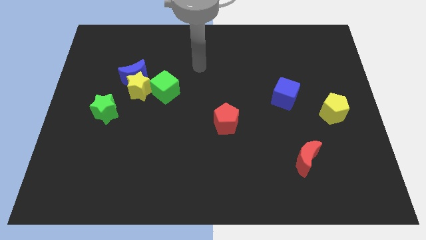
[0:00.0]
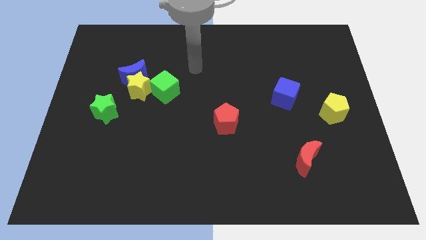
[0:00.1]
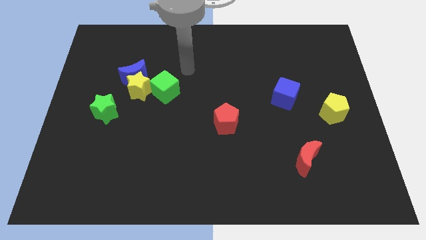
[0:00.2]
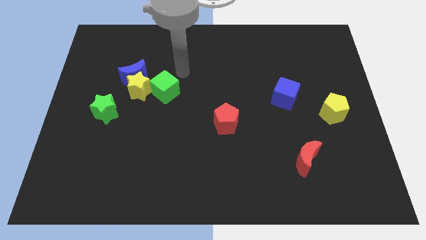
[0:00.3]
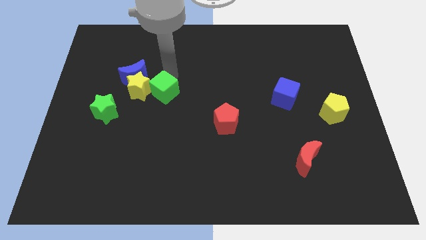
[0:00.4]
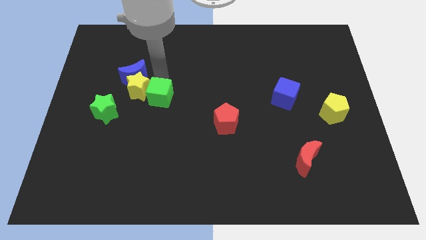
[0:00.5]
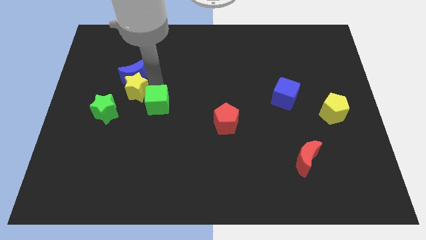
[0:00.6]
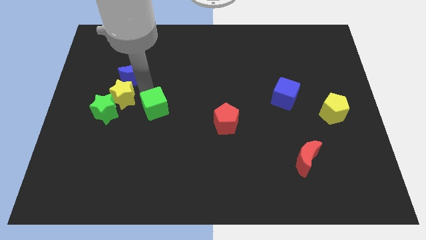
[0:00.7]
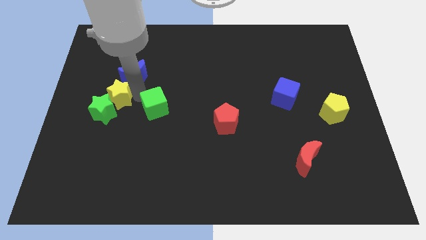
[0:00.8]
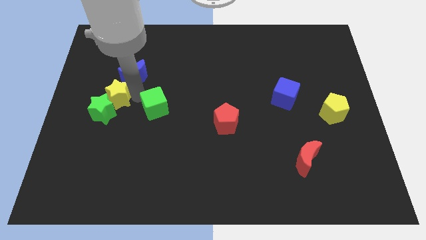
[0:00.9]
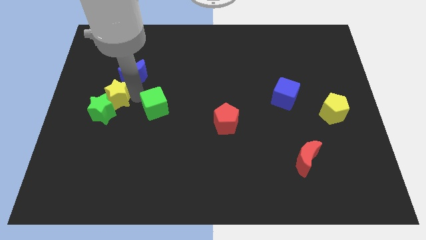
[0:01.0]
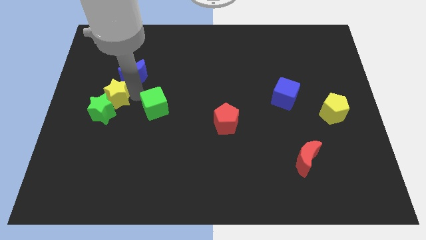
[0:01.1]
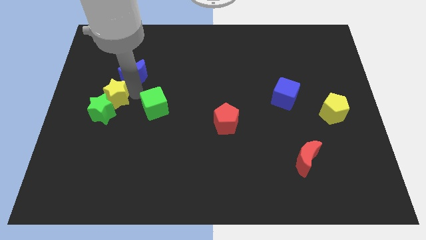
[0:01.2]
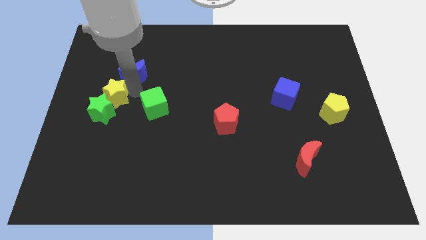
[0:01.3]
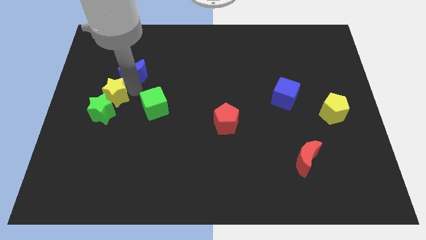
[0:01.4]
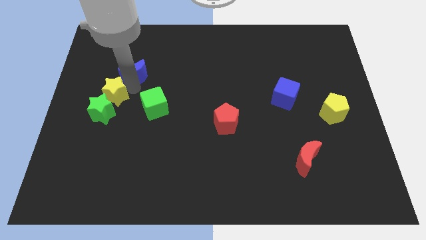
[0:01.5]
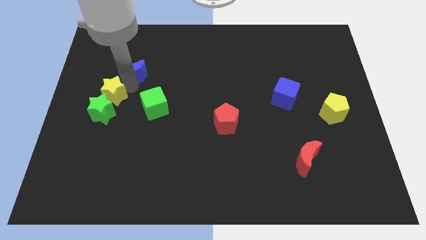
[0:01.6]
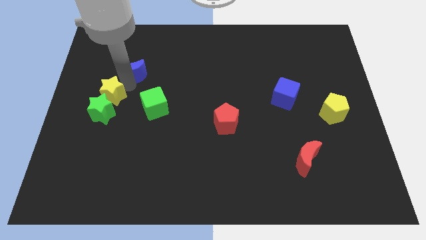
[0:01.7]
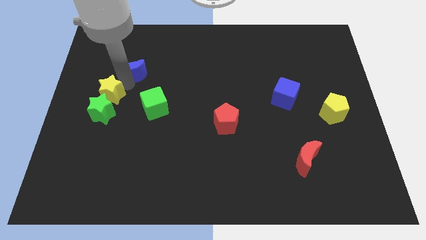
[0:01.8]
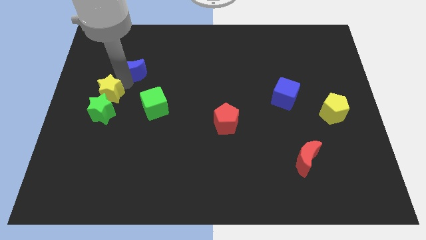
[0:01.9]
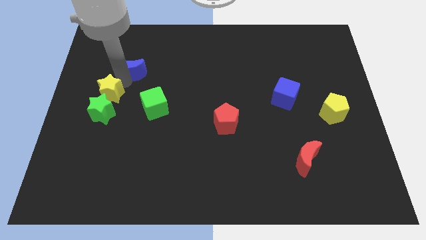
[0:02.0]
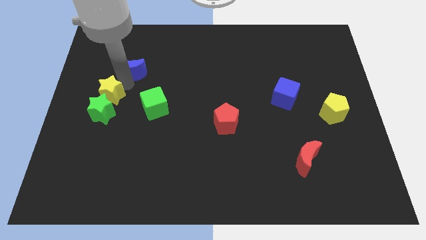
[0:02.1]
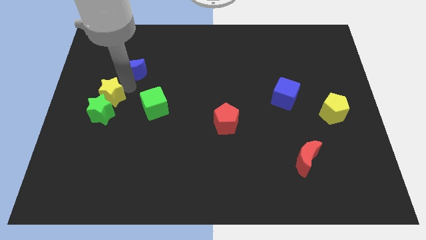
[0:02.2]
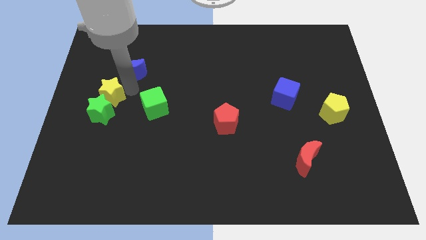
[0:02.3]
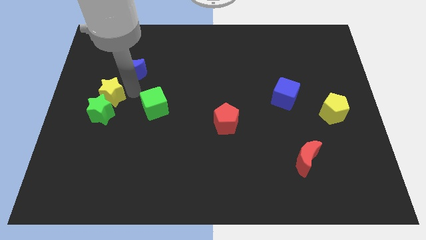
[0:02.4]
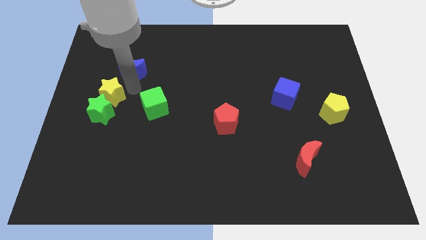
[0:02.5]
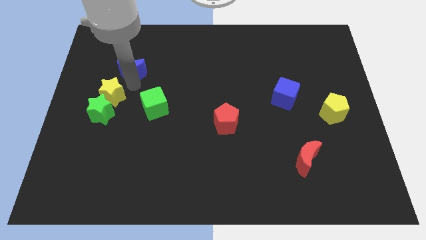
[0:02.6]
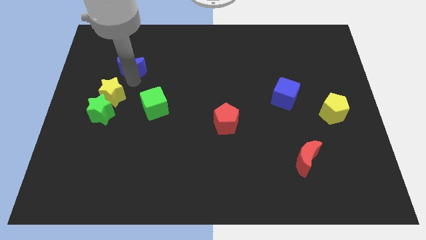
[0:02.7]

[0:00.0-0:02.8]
pull the blue moon apart from the yellow star and green cube

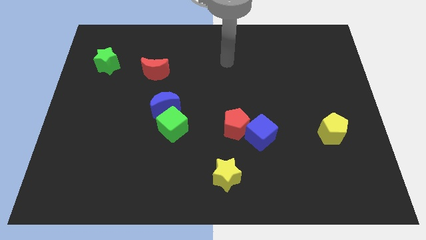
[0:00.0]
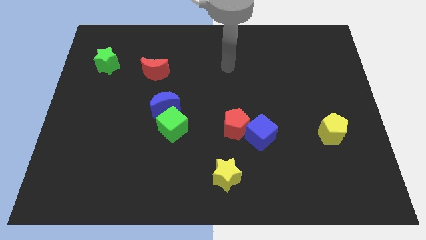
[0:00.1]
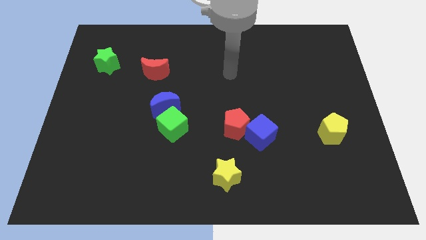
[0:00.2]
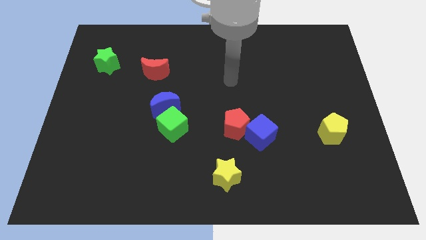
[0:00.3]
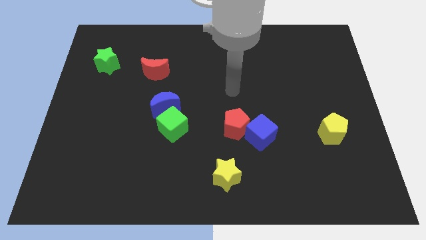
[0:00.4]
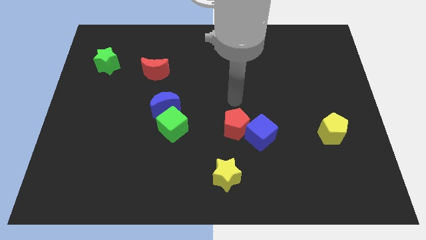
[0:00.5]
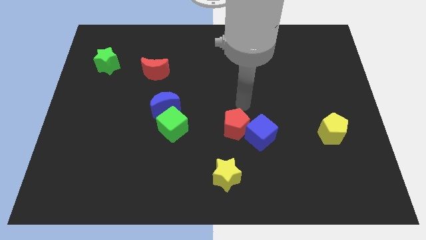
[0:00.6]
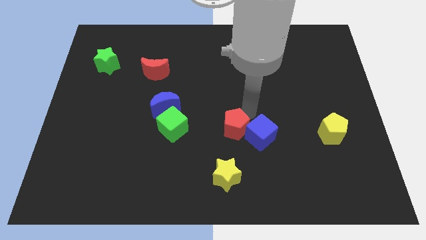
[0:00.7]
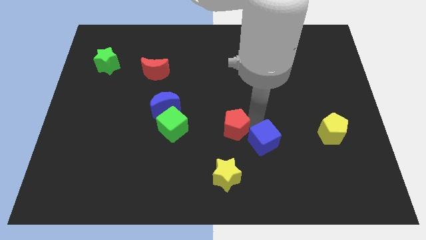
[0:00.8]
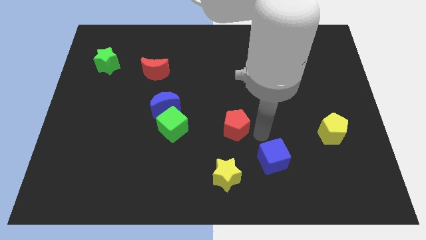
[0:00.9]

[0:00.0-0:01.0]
separate the red pentagon from the blue cube

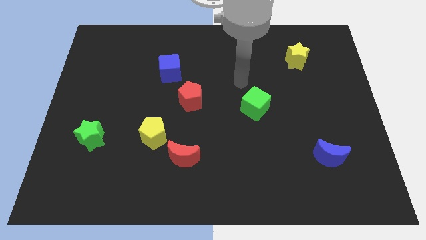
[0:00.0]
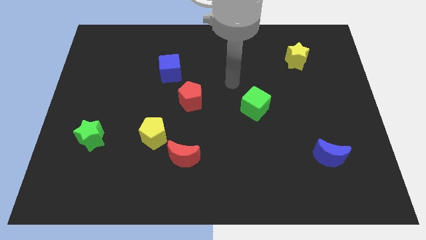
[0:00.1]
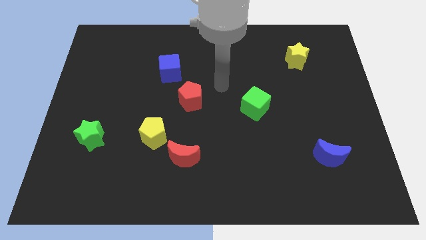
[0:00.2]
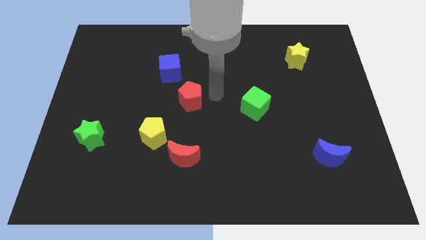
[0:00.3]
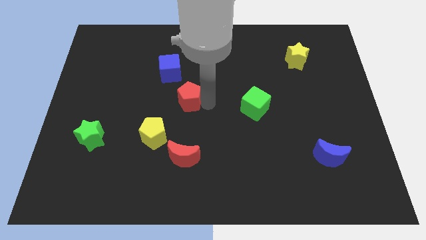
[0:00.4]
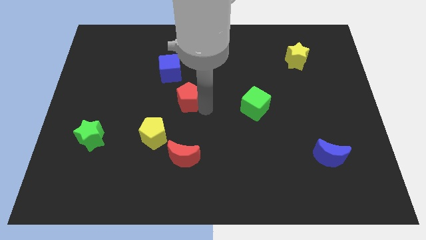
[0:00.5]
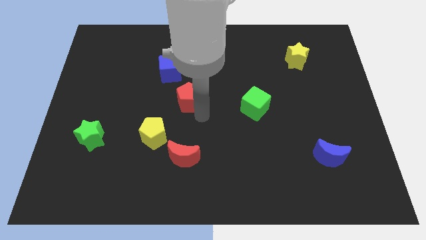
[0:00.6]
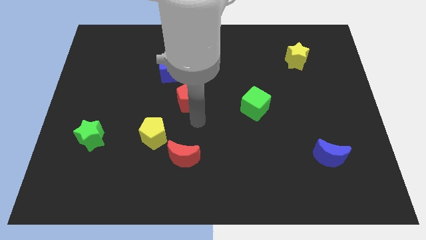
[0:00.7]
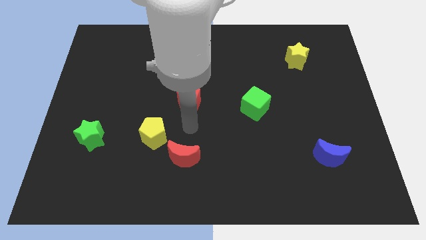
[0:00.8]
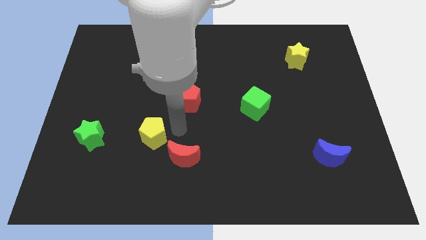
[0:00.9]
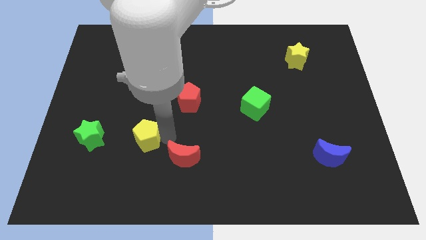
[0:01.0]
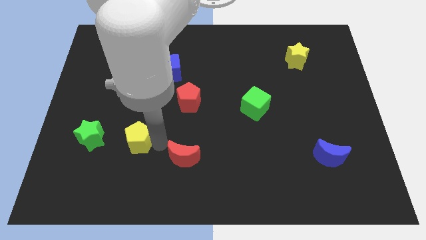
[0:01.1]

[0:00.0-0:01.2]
separate the red moon from the yellow pentagon

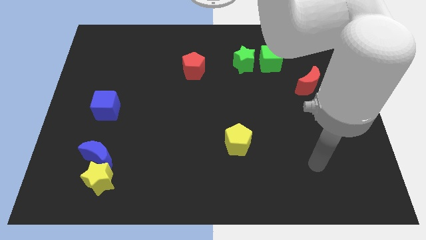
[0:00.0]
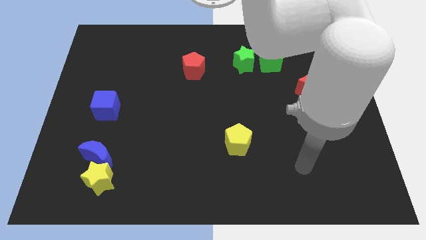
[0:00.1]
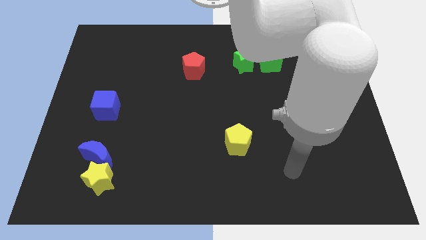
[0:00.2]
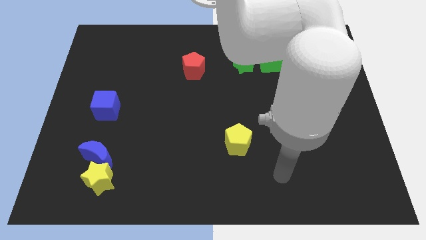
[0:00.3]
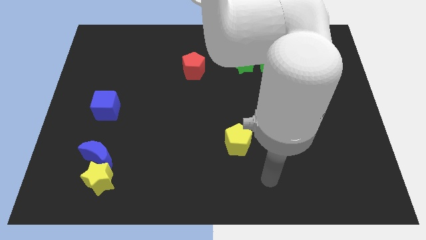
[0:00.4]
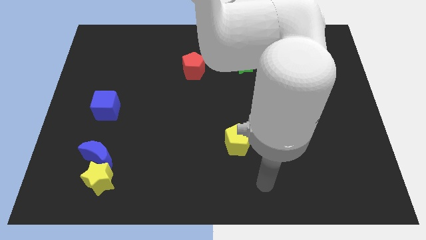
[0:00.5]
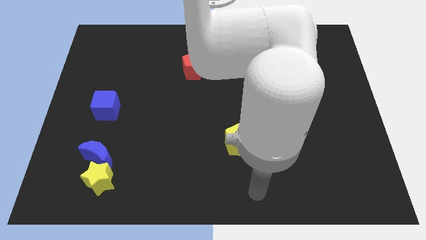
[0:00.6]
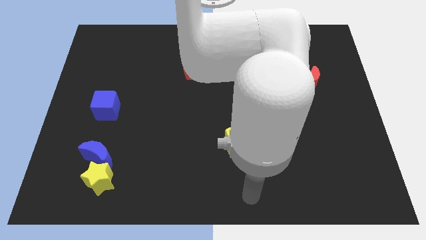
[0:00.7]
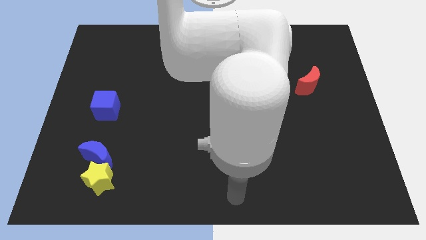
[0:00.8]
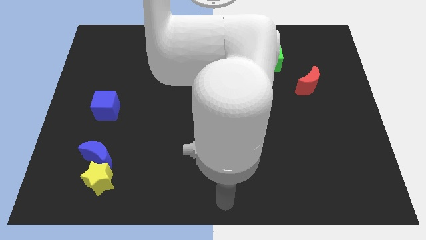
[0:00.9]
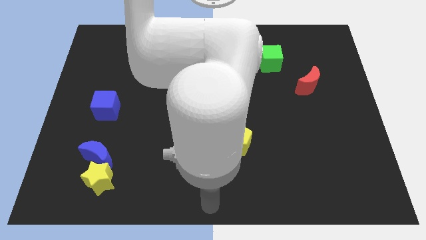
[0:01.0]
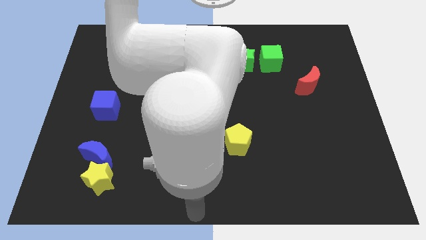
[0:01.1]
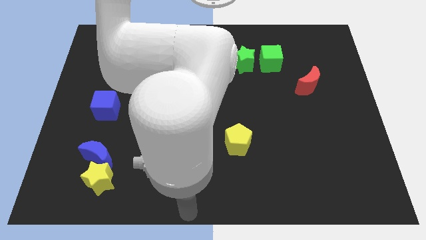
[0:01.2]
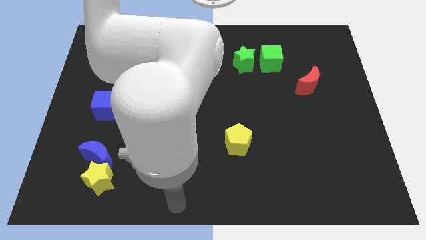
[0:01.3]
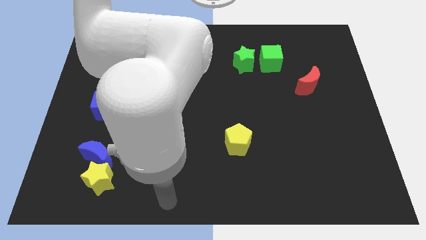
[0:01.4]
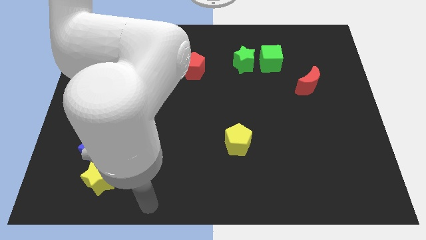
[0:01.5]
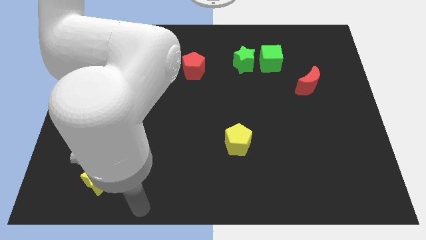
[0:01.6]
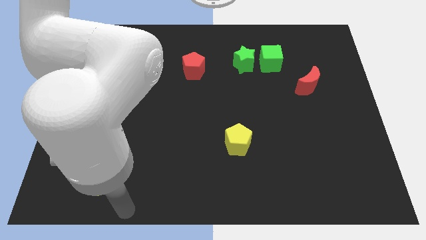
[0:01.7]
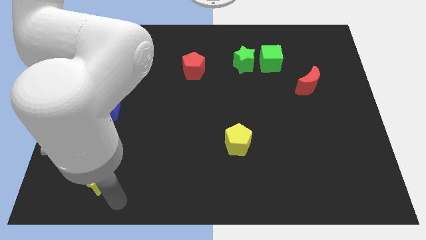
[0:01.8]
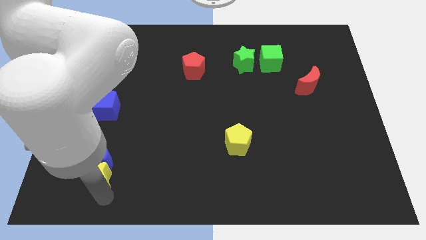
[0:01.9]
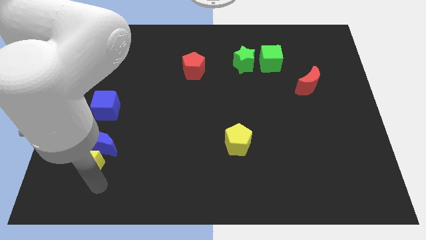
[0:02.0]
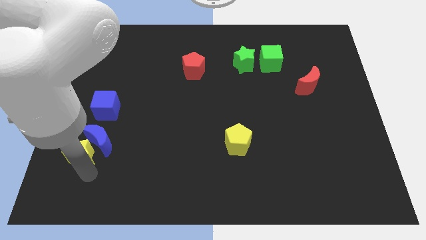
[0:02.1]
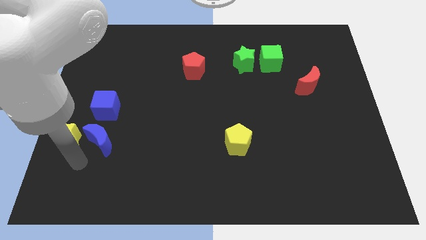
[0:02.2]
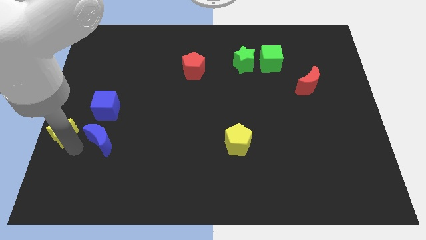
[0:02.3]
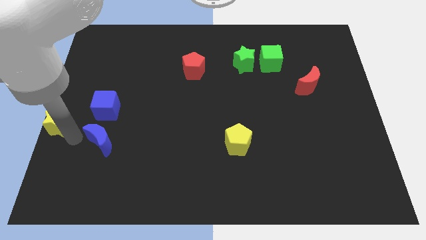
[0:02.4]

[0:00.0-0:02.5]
separate the blue moon from the yellow star

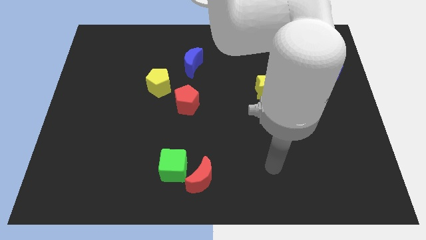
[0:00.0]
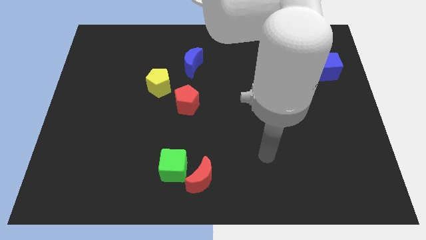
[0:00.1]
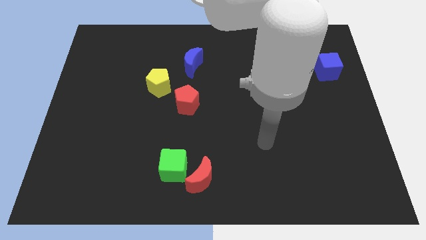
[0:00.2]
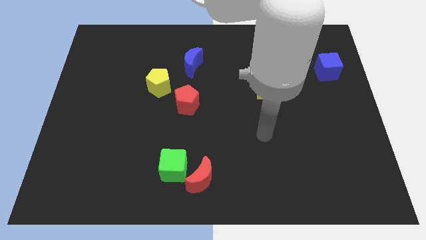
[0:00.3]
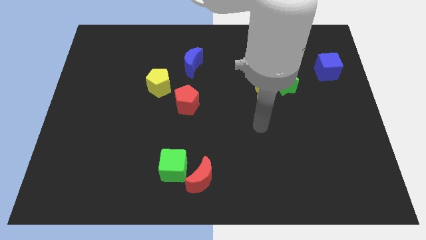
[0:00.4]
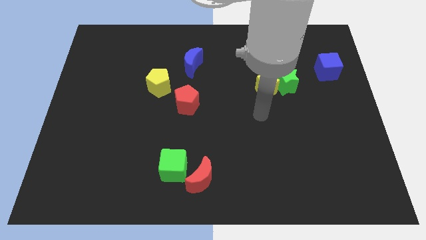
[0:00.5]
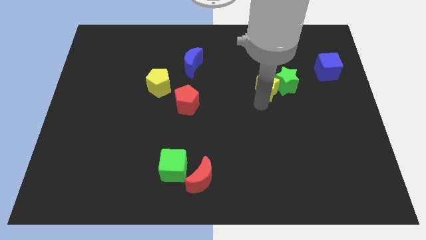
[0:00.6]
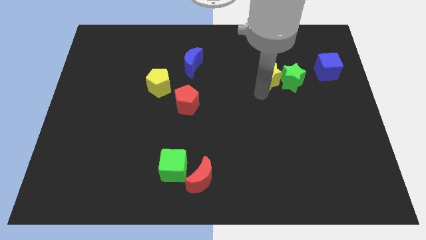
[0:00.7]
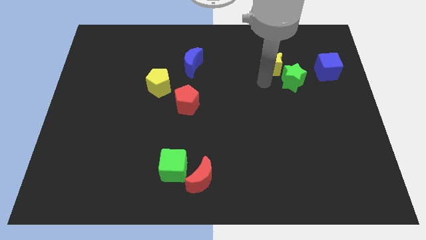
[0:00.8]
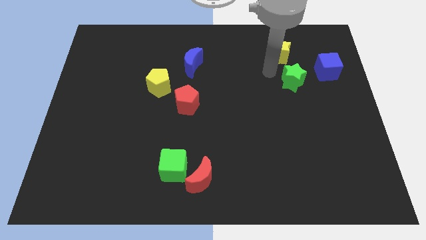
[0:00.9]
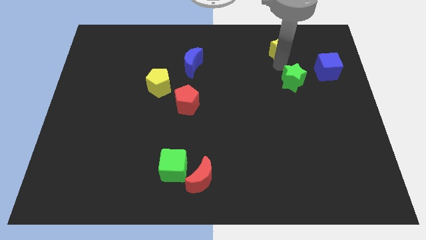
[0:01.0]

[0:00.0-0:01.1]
pull the green star apart from the yellow star

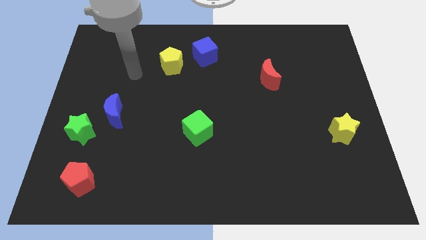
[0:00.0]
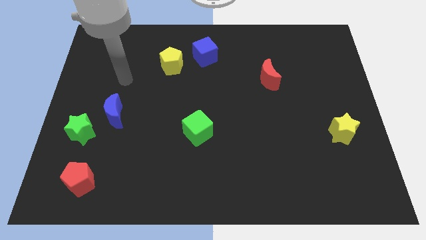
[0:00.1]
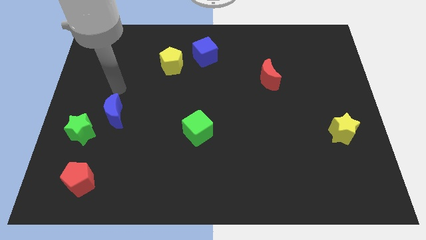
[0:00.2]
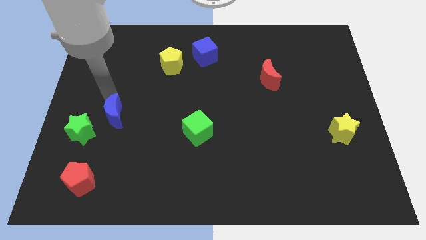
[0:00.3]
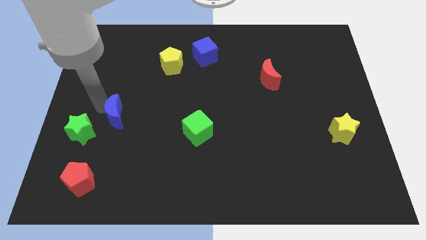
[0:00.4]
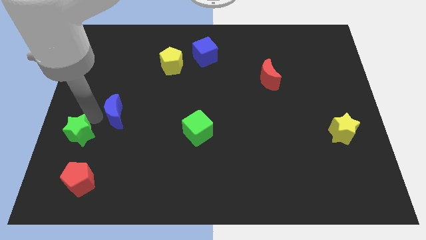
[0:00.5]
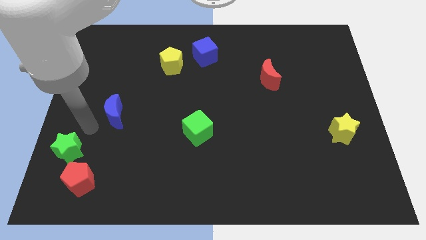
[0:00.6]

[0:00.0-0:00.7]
move the blue moon away from the green star
